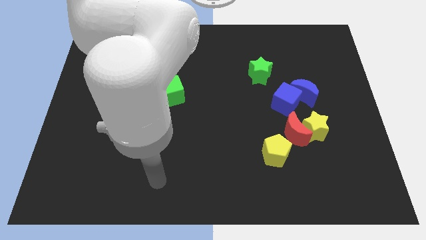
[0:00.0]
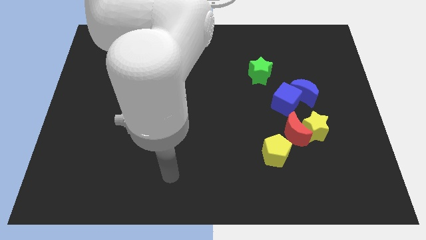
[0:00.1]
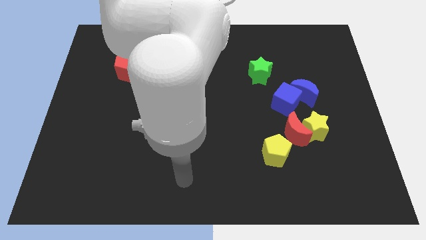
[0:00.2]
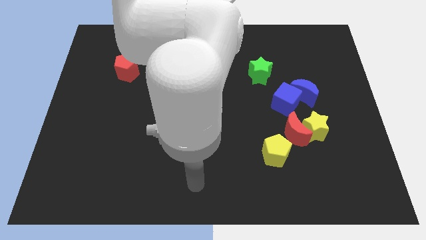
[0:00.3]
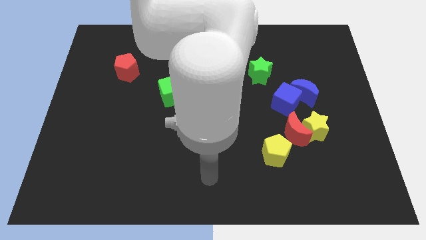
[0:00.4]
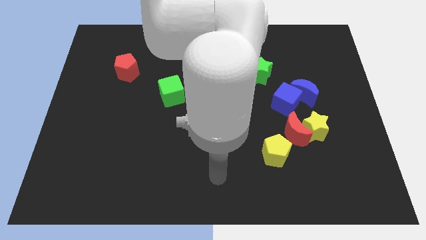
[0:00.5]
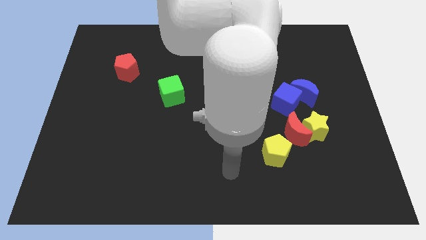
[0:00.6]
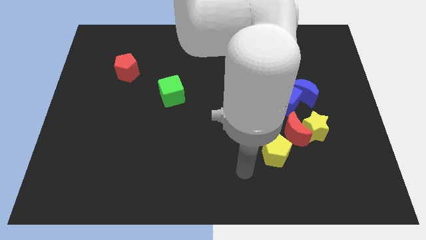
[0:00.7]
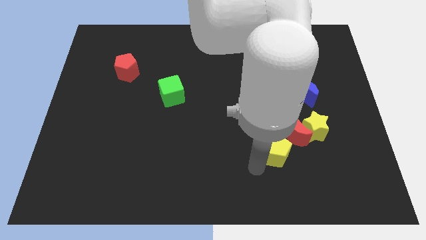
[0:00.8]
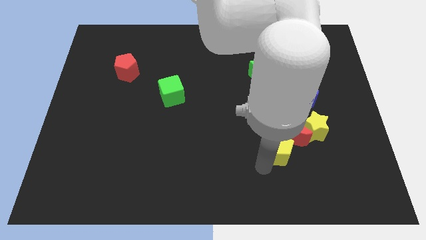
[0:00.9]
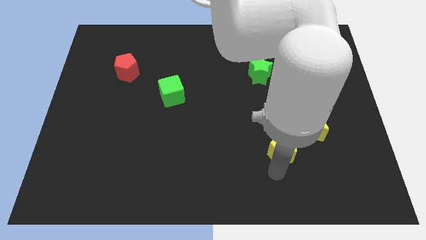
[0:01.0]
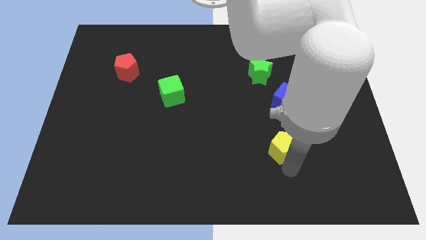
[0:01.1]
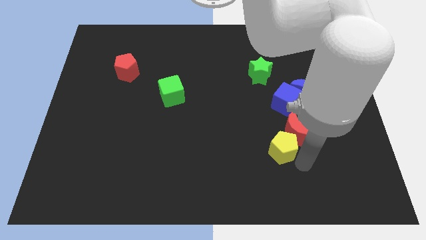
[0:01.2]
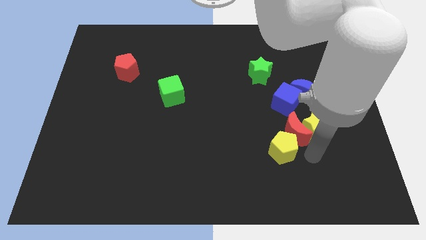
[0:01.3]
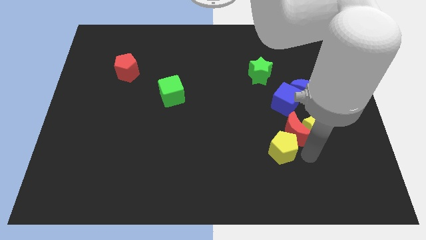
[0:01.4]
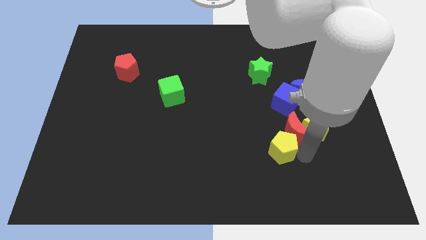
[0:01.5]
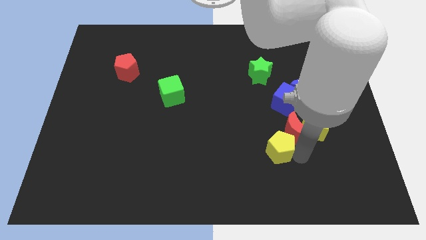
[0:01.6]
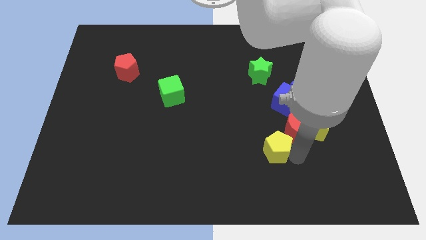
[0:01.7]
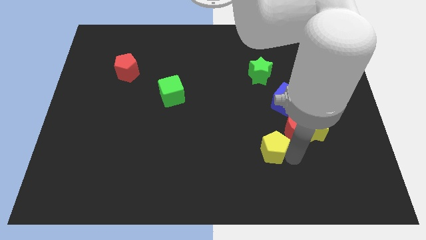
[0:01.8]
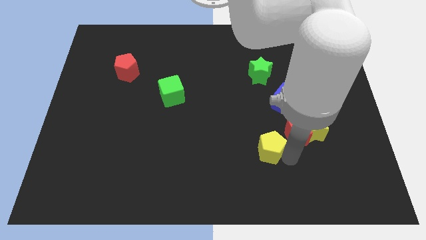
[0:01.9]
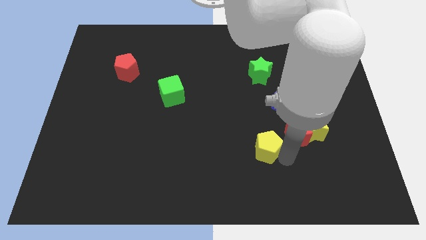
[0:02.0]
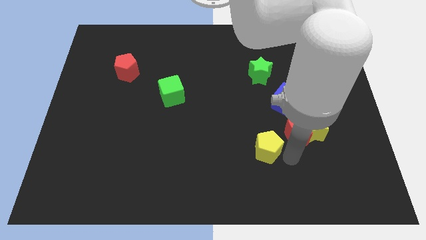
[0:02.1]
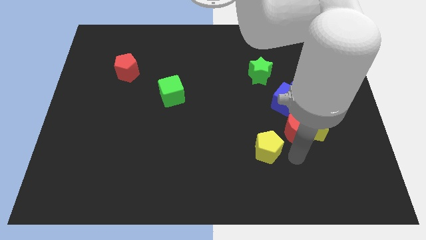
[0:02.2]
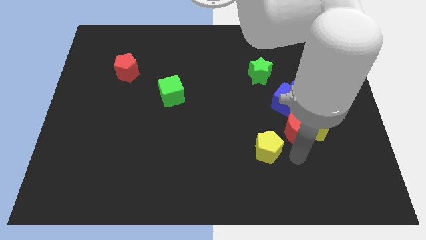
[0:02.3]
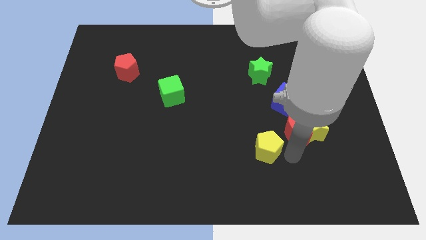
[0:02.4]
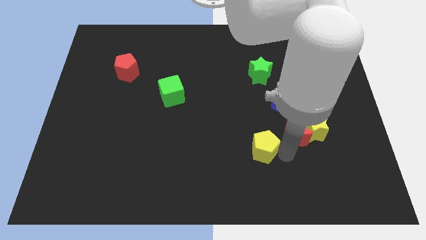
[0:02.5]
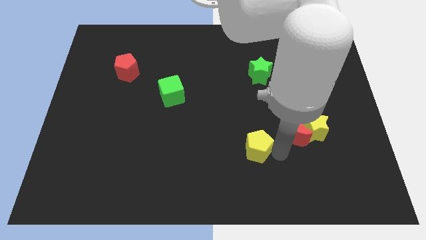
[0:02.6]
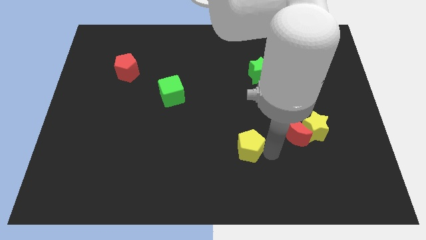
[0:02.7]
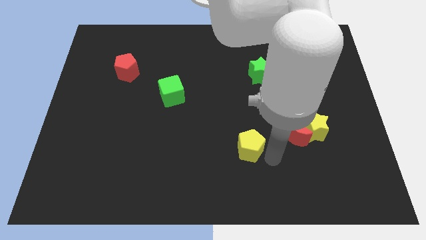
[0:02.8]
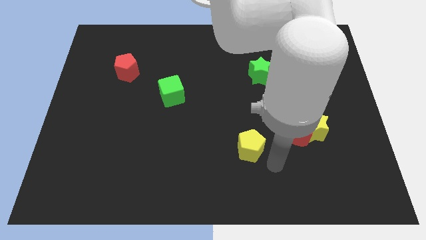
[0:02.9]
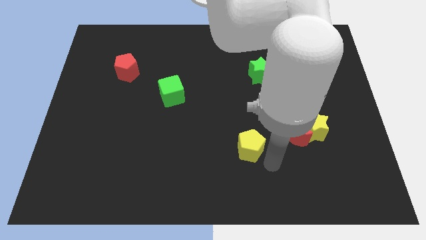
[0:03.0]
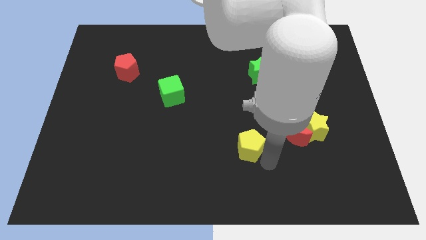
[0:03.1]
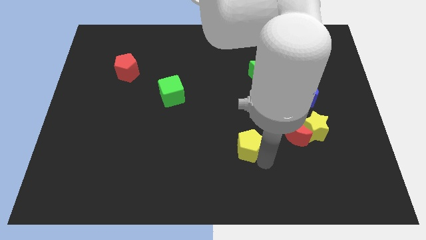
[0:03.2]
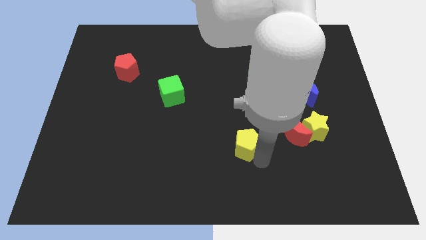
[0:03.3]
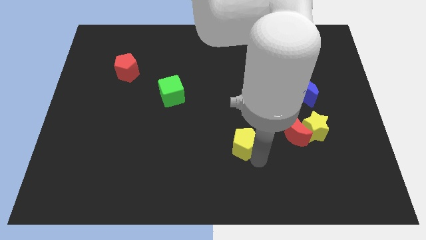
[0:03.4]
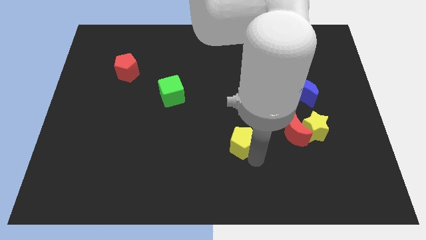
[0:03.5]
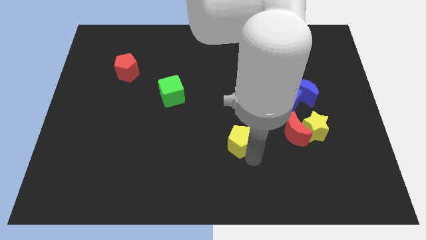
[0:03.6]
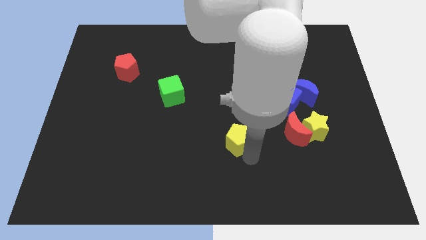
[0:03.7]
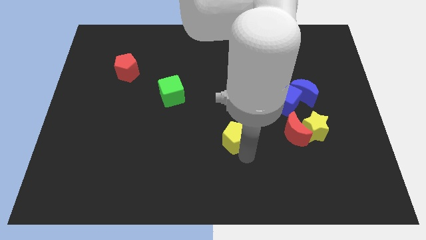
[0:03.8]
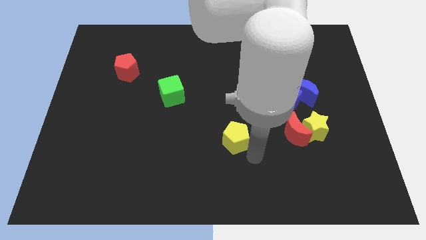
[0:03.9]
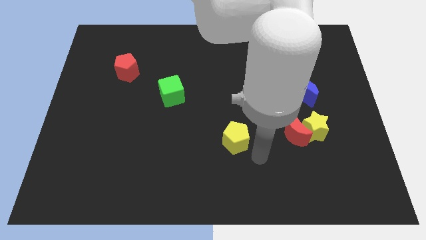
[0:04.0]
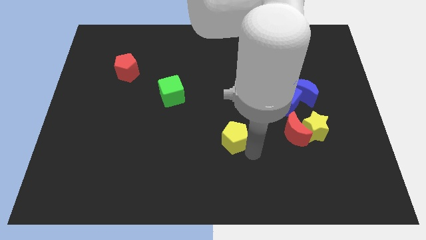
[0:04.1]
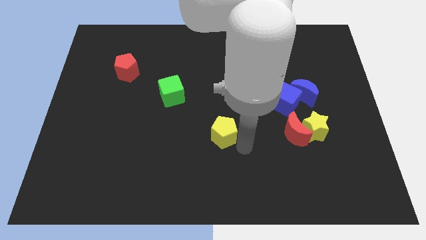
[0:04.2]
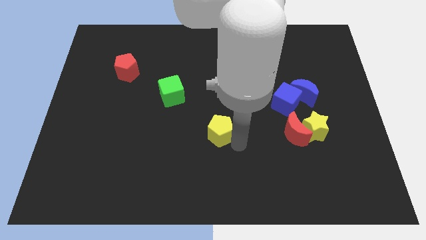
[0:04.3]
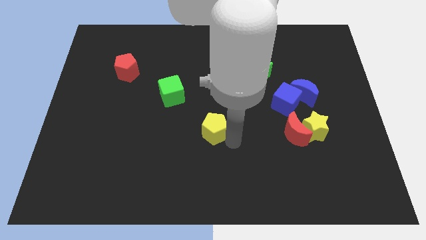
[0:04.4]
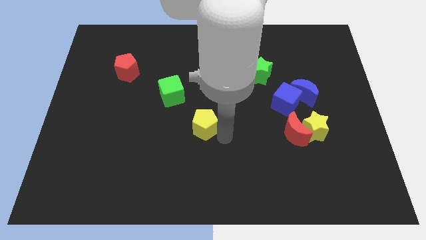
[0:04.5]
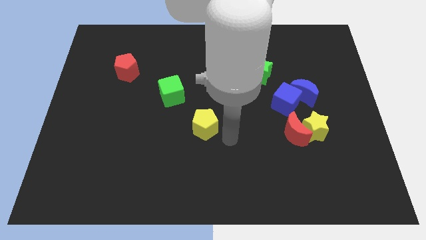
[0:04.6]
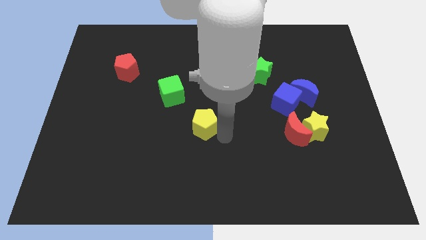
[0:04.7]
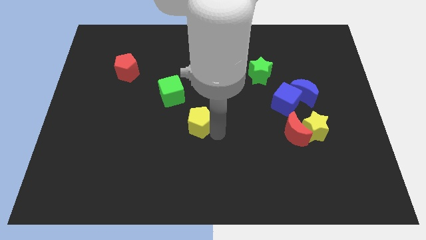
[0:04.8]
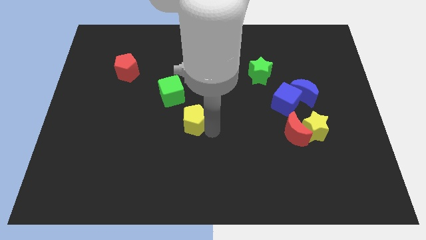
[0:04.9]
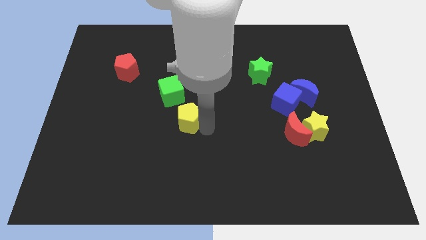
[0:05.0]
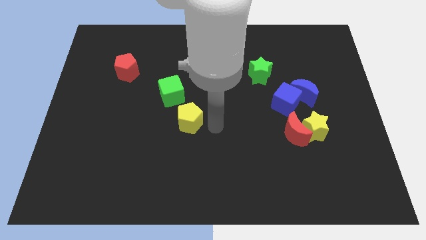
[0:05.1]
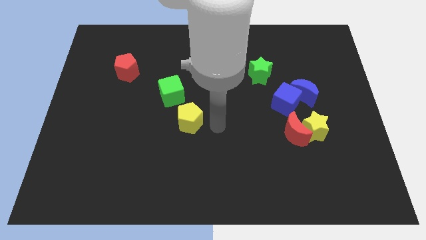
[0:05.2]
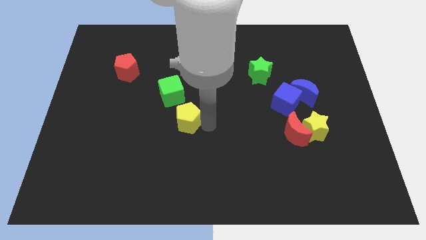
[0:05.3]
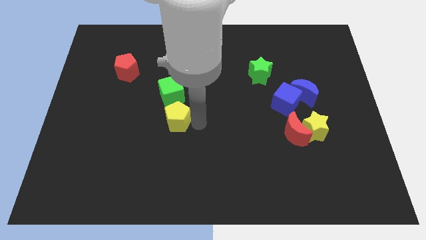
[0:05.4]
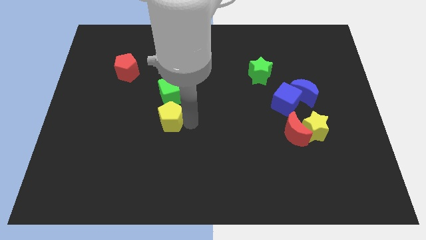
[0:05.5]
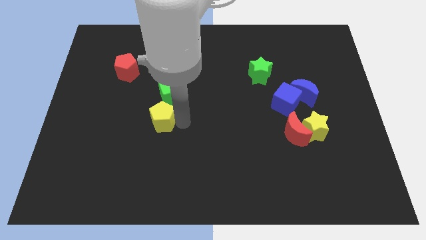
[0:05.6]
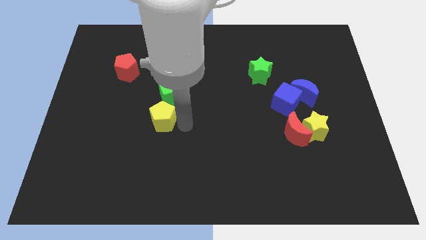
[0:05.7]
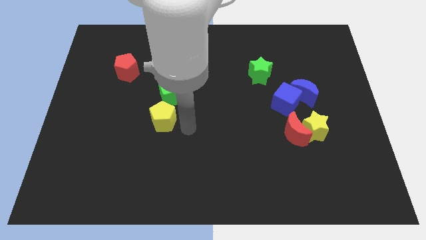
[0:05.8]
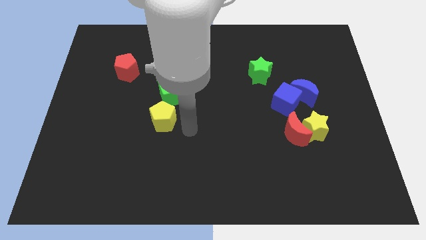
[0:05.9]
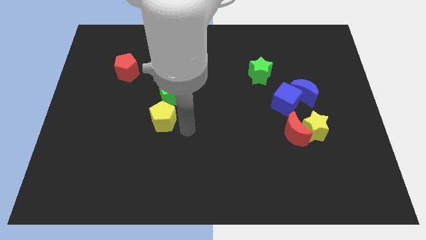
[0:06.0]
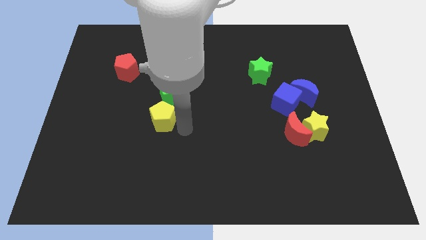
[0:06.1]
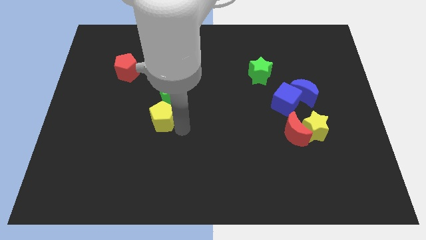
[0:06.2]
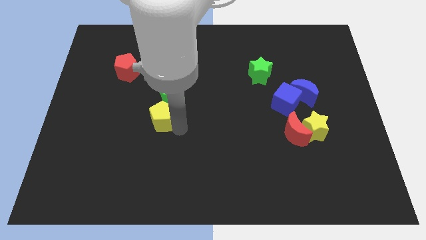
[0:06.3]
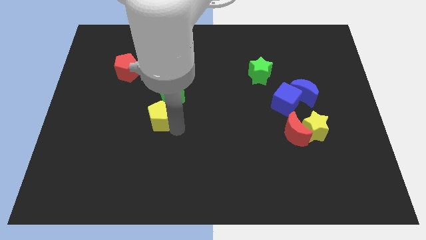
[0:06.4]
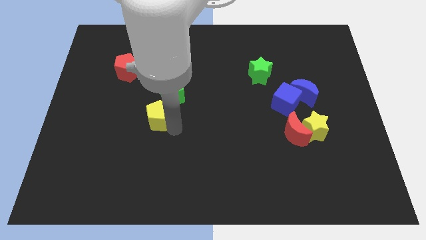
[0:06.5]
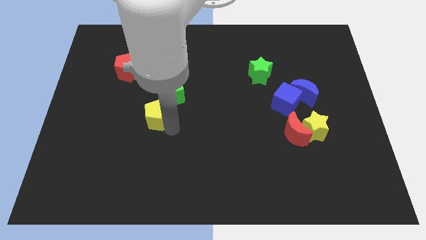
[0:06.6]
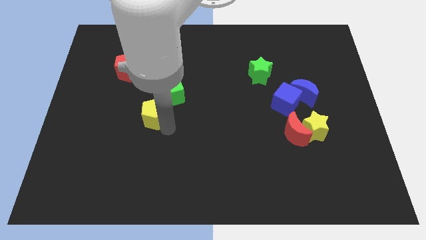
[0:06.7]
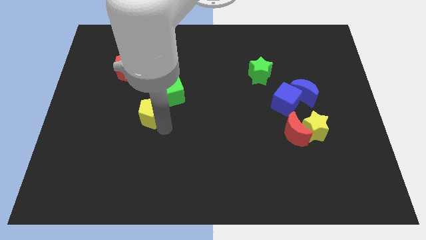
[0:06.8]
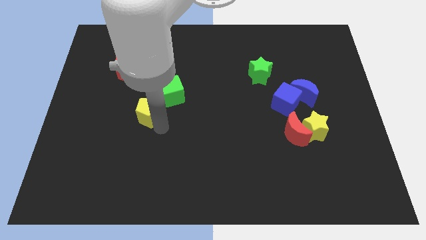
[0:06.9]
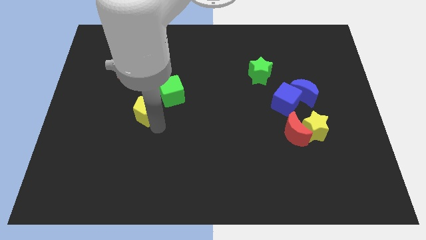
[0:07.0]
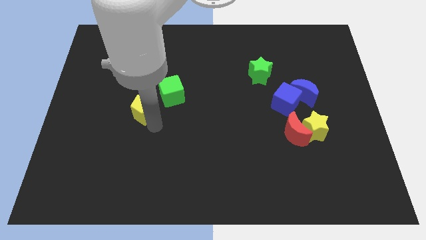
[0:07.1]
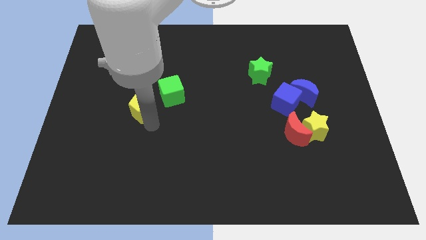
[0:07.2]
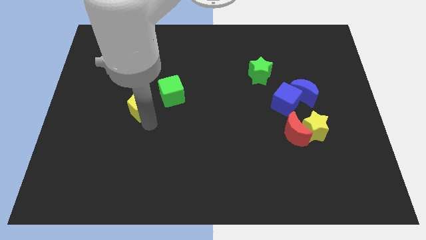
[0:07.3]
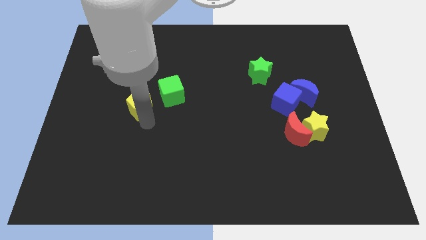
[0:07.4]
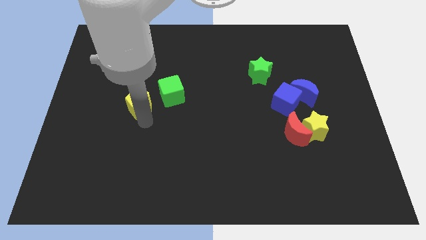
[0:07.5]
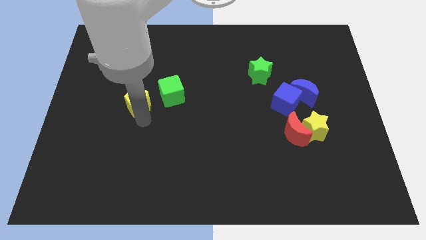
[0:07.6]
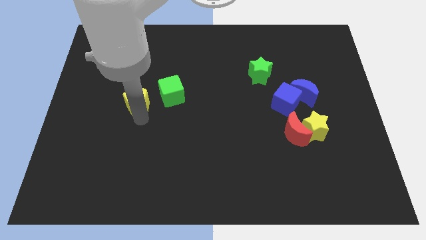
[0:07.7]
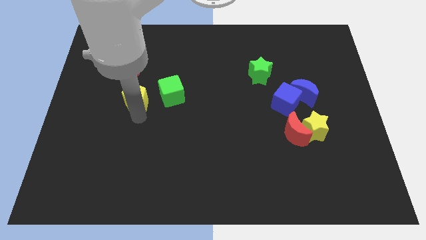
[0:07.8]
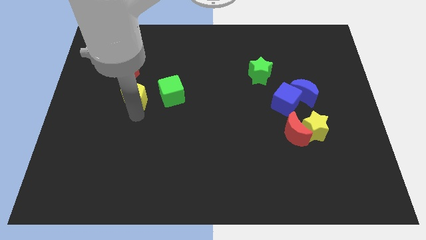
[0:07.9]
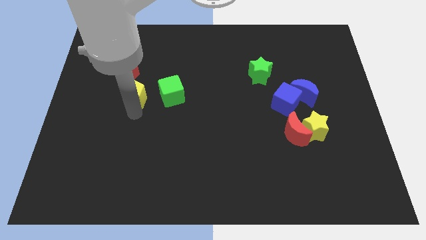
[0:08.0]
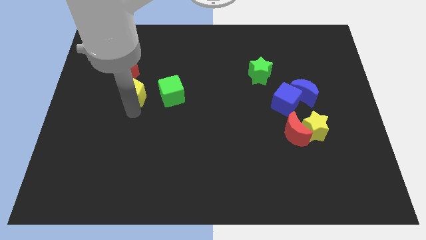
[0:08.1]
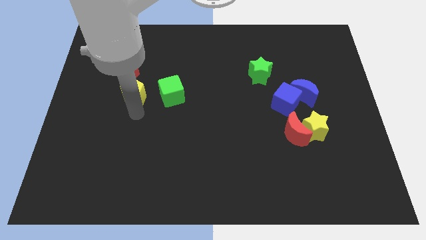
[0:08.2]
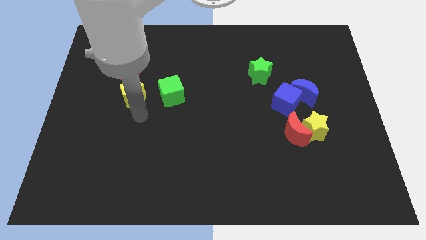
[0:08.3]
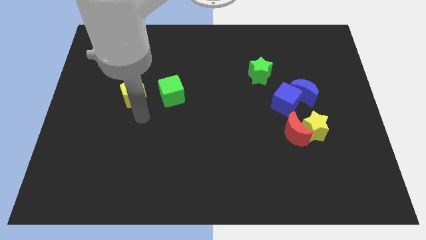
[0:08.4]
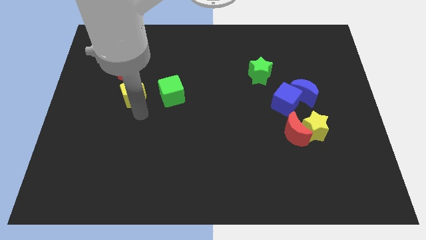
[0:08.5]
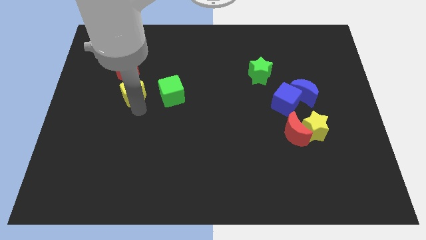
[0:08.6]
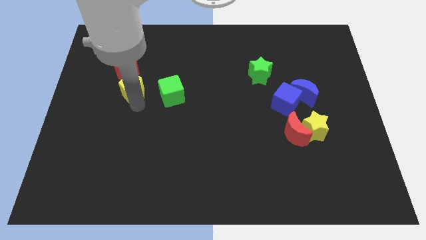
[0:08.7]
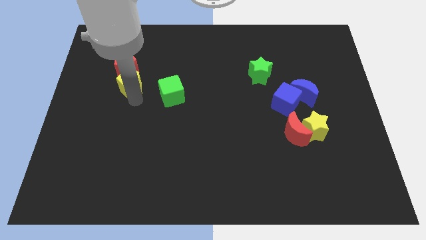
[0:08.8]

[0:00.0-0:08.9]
move the yellow pentagon close to the red pentagon
